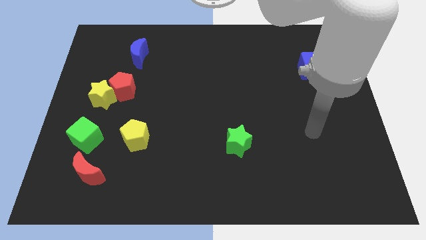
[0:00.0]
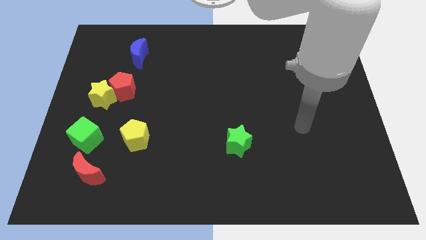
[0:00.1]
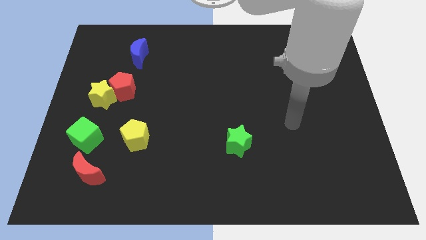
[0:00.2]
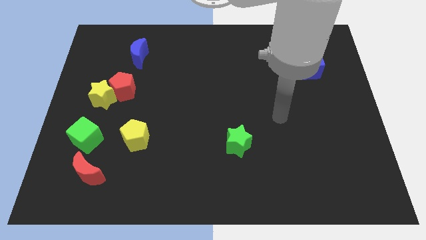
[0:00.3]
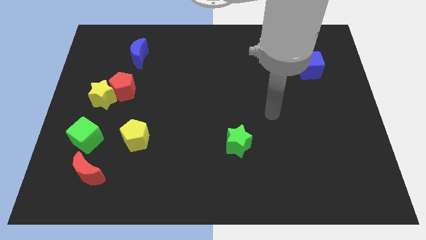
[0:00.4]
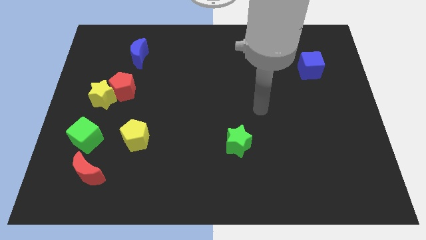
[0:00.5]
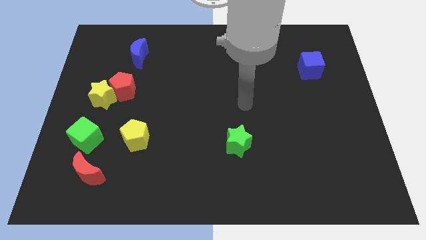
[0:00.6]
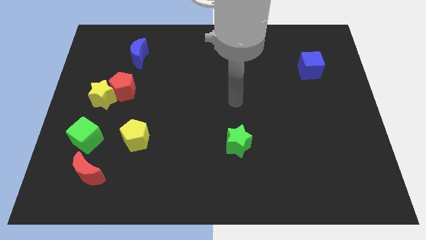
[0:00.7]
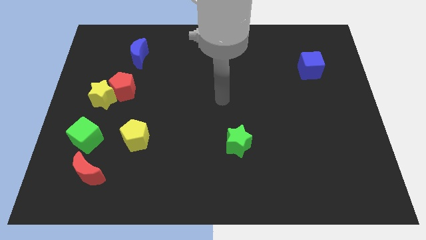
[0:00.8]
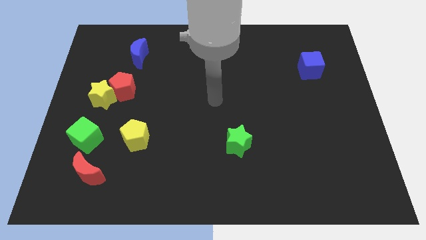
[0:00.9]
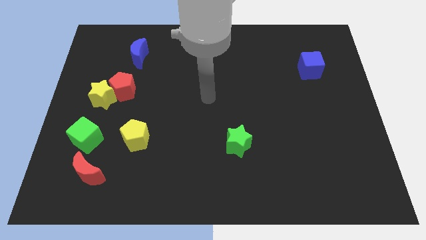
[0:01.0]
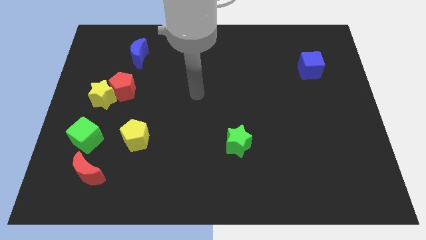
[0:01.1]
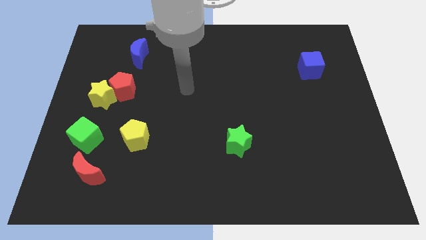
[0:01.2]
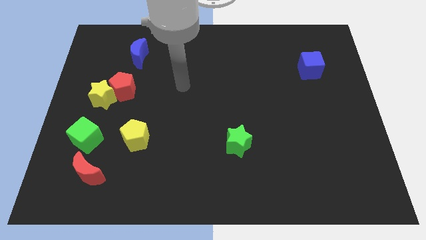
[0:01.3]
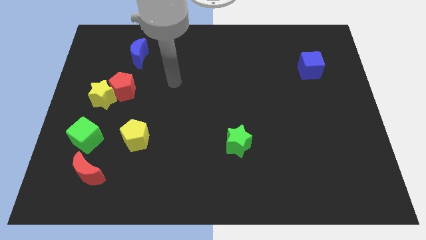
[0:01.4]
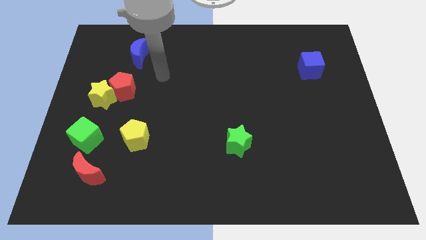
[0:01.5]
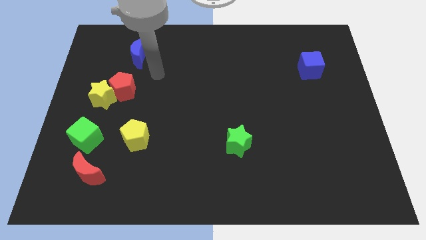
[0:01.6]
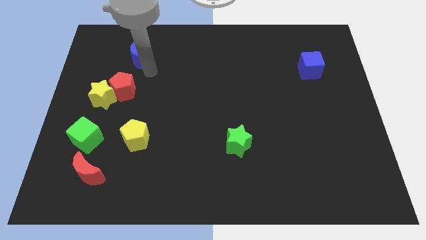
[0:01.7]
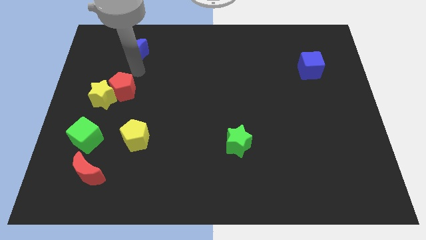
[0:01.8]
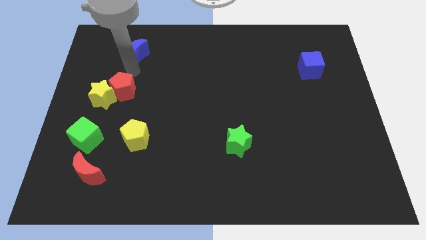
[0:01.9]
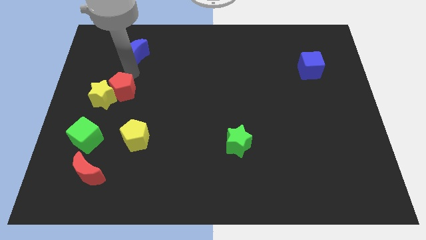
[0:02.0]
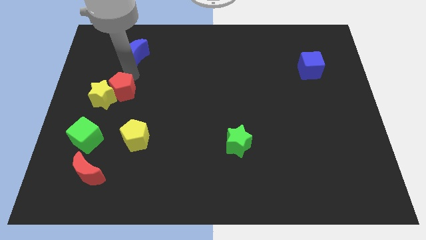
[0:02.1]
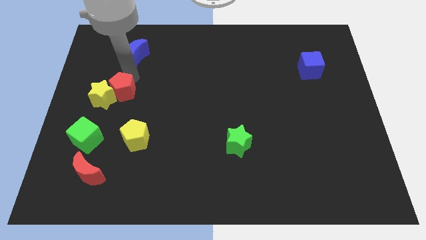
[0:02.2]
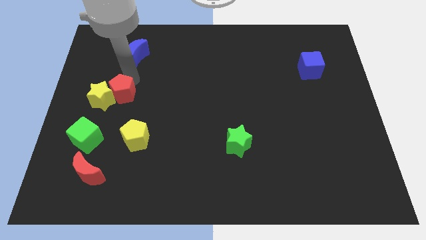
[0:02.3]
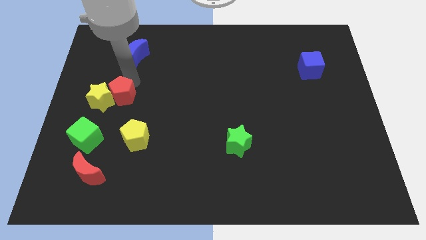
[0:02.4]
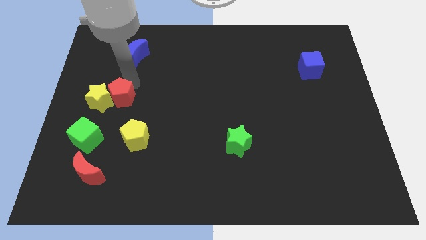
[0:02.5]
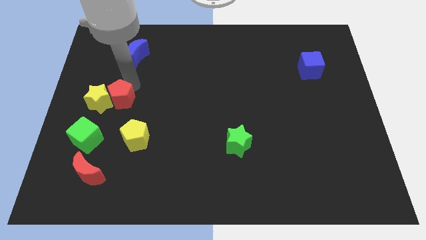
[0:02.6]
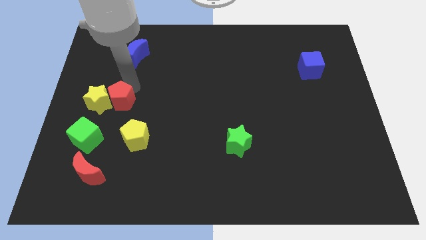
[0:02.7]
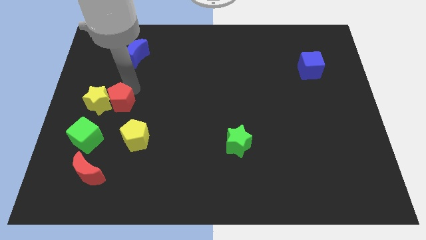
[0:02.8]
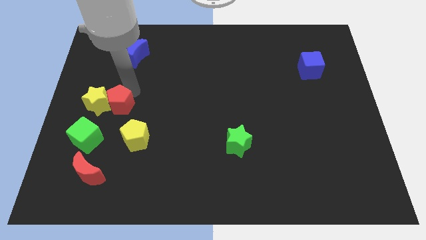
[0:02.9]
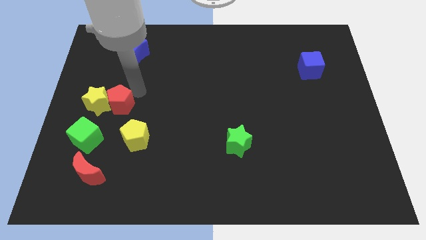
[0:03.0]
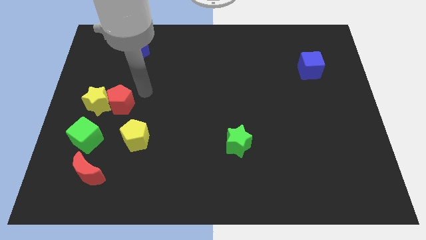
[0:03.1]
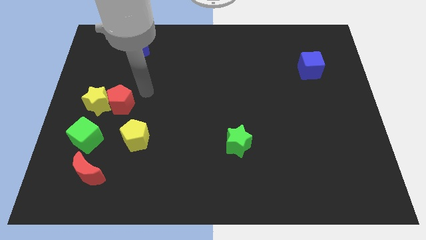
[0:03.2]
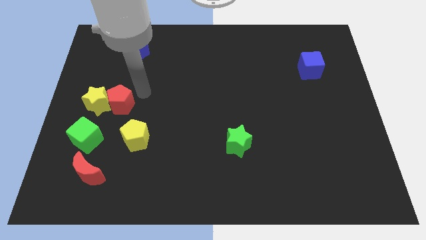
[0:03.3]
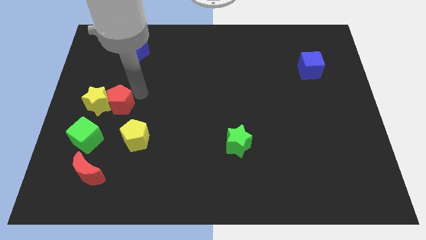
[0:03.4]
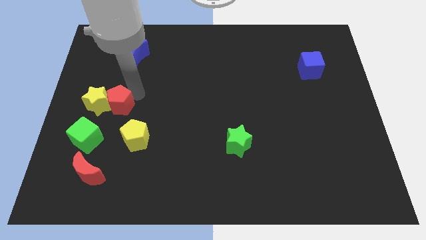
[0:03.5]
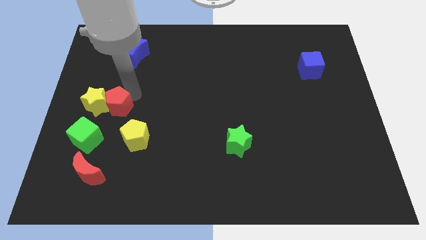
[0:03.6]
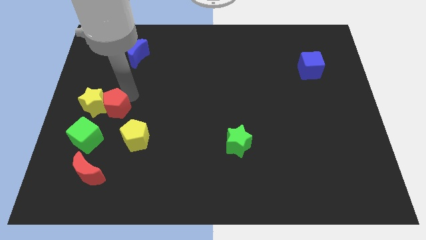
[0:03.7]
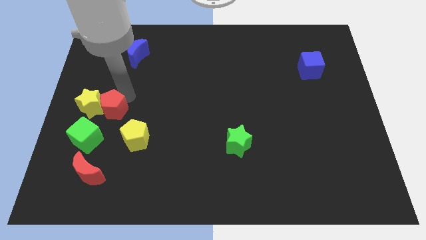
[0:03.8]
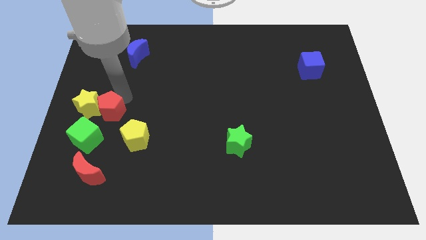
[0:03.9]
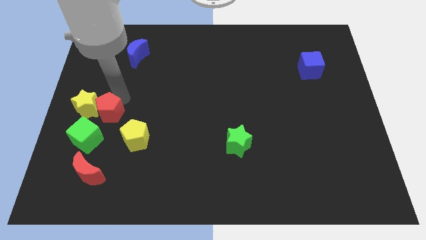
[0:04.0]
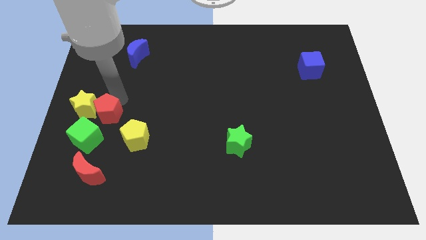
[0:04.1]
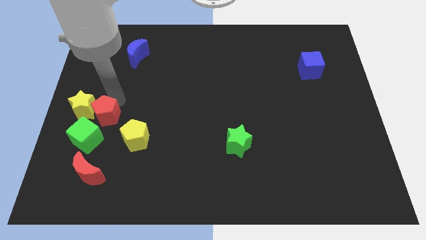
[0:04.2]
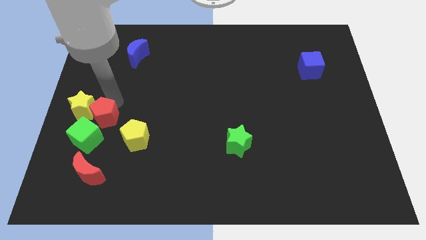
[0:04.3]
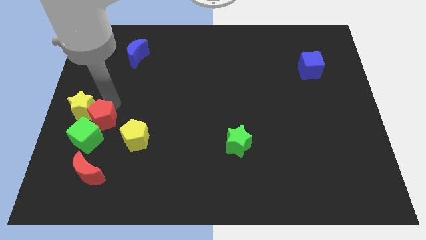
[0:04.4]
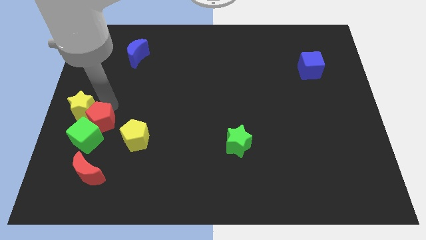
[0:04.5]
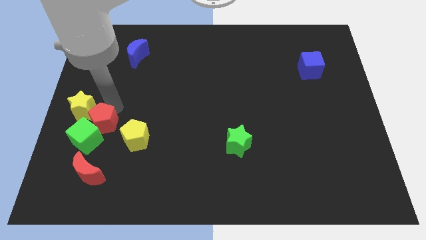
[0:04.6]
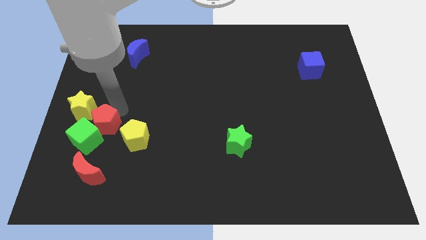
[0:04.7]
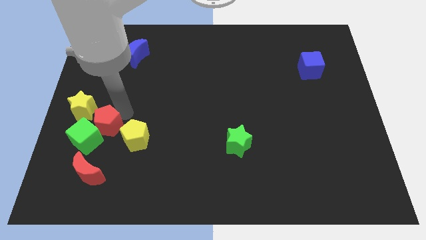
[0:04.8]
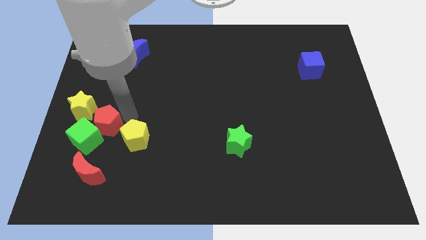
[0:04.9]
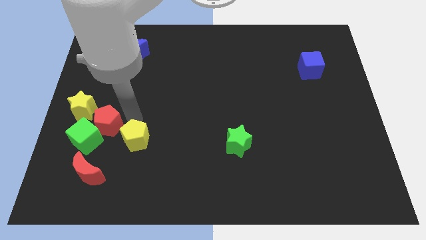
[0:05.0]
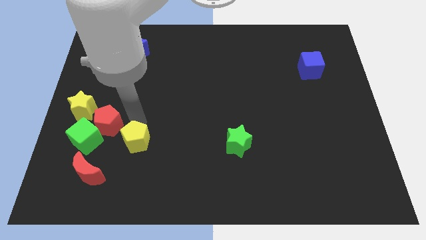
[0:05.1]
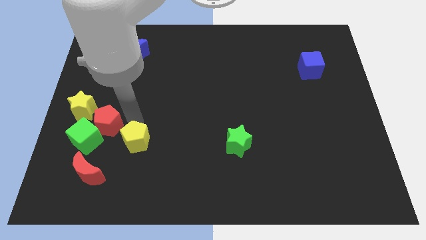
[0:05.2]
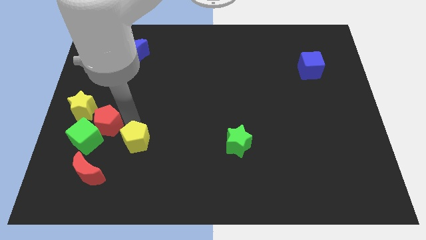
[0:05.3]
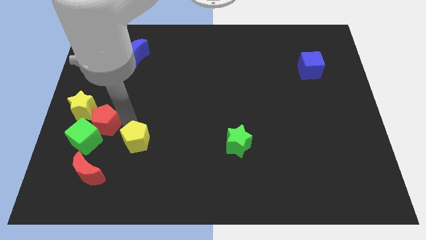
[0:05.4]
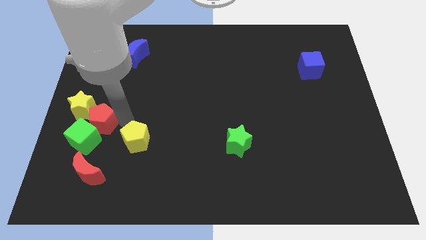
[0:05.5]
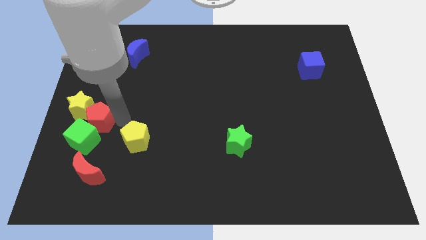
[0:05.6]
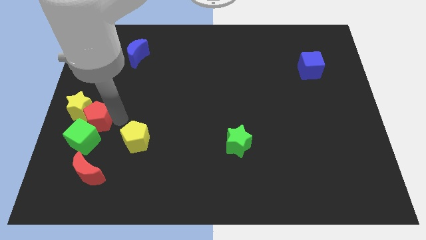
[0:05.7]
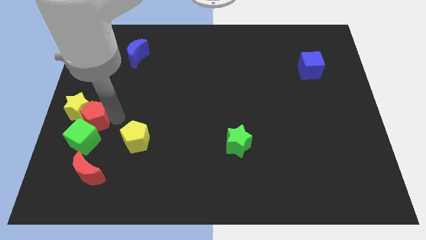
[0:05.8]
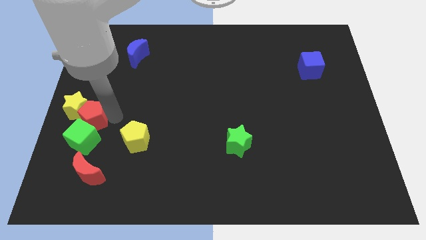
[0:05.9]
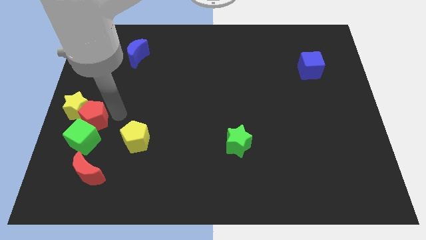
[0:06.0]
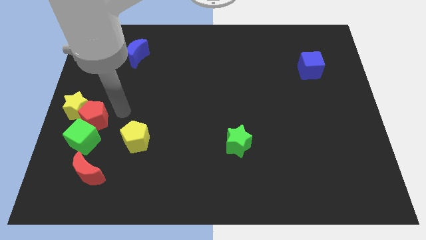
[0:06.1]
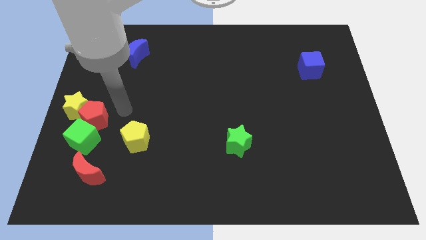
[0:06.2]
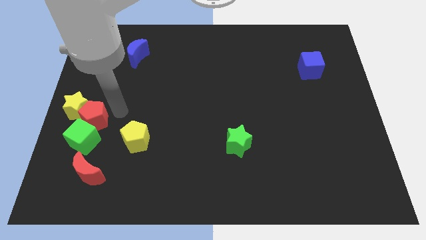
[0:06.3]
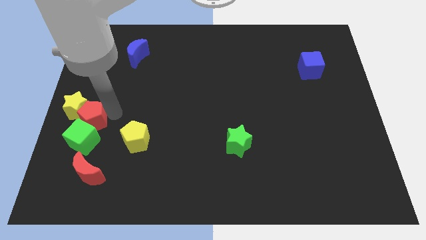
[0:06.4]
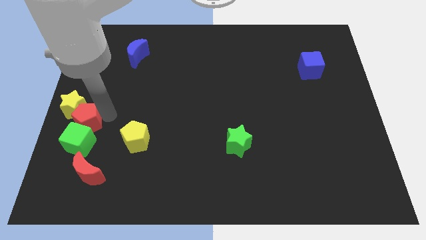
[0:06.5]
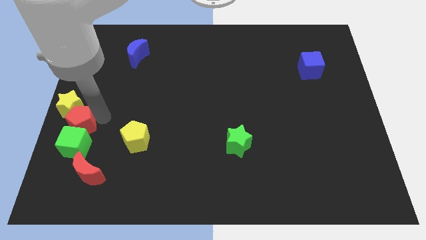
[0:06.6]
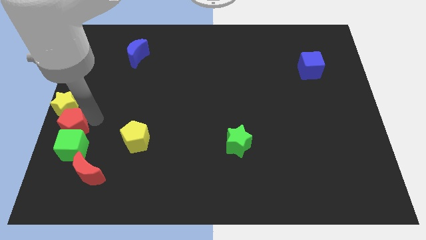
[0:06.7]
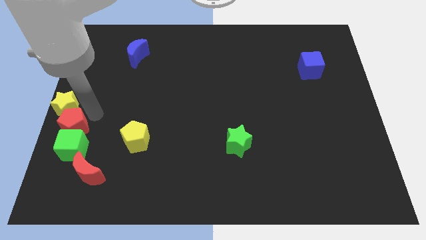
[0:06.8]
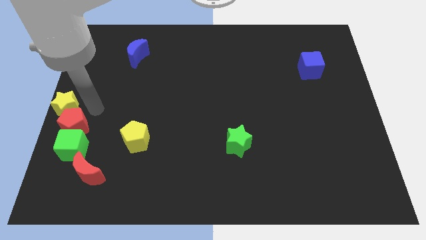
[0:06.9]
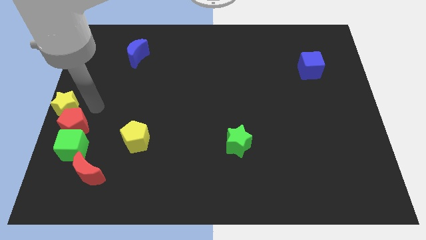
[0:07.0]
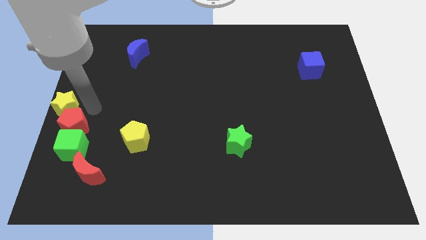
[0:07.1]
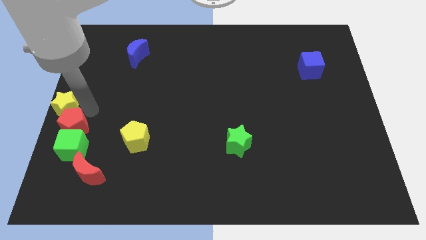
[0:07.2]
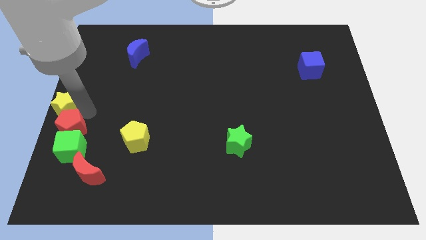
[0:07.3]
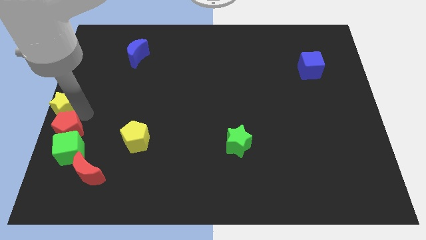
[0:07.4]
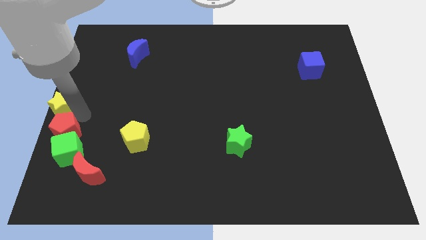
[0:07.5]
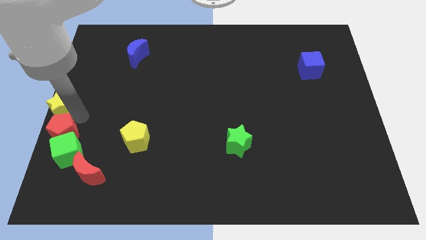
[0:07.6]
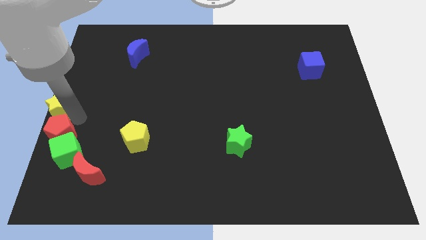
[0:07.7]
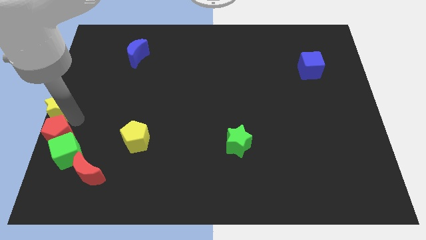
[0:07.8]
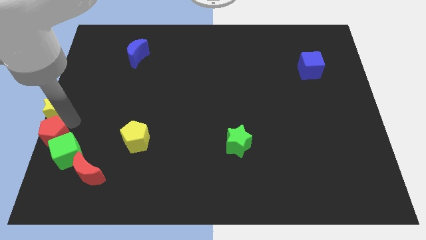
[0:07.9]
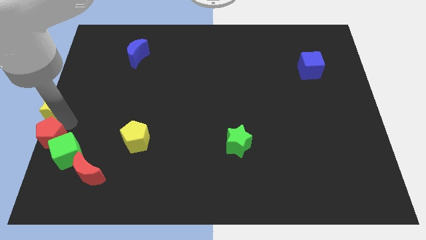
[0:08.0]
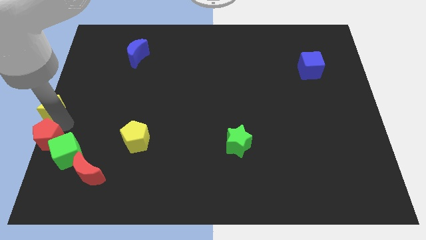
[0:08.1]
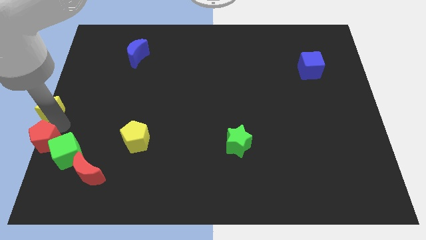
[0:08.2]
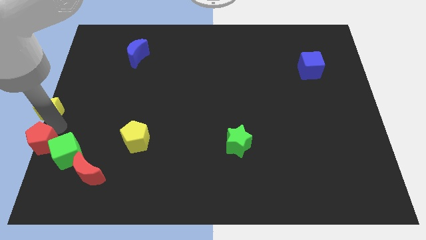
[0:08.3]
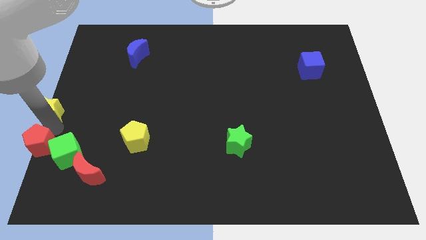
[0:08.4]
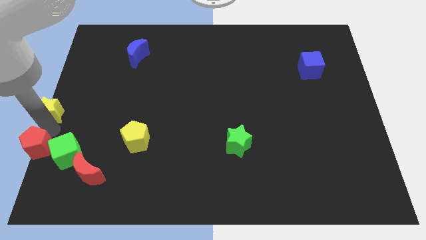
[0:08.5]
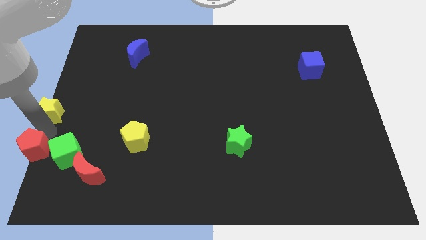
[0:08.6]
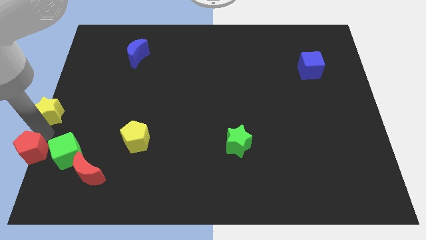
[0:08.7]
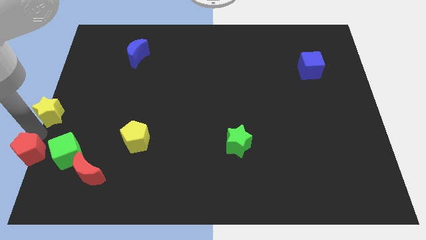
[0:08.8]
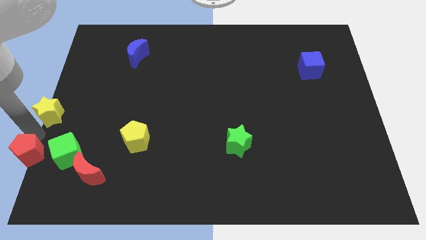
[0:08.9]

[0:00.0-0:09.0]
put the red pentagon to the bottom left
